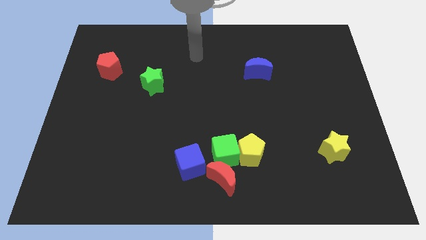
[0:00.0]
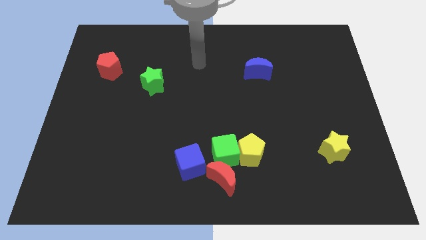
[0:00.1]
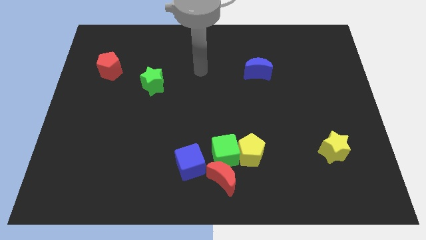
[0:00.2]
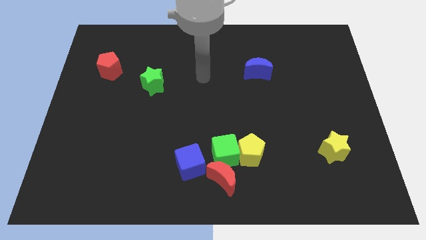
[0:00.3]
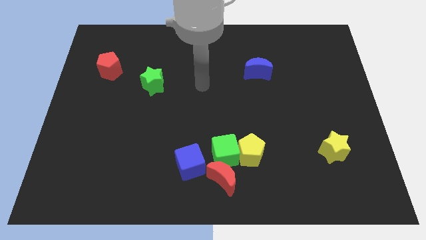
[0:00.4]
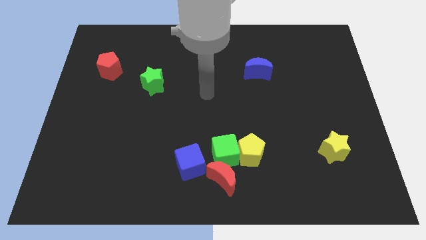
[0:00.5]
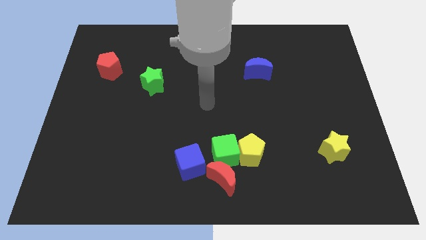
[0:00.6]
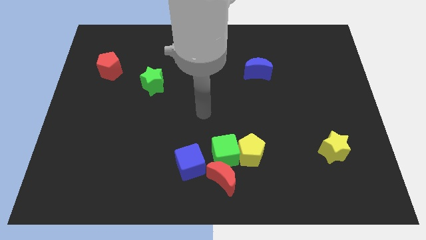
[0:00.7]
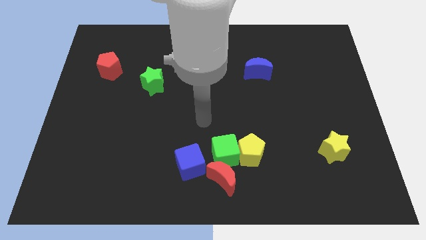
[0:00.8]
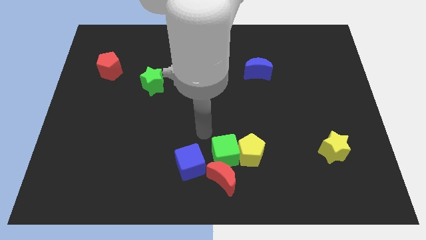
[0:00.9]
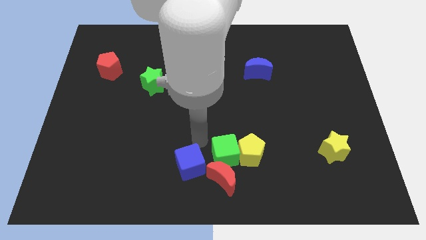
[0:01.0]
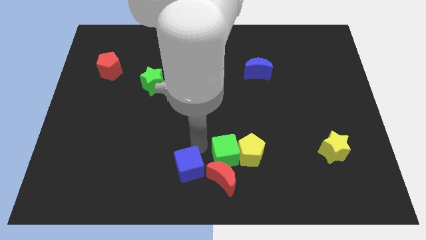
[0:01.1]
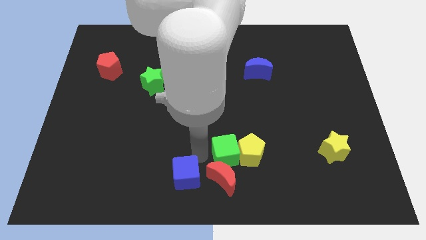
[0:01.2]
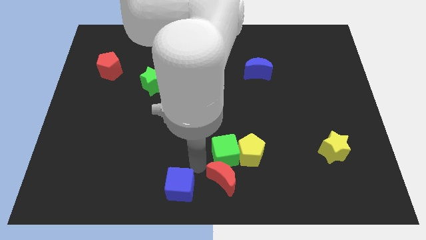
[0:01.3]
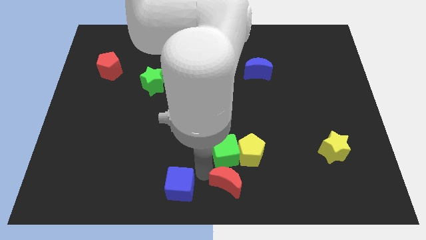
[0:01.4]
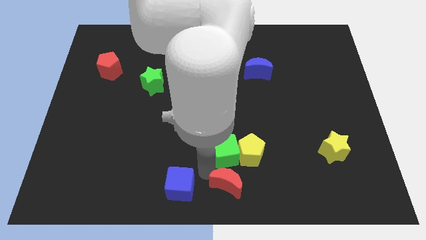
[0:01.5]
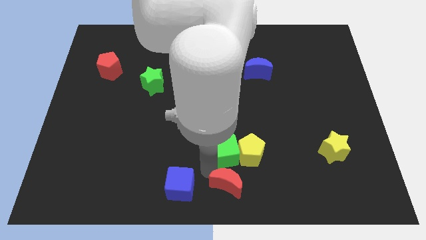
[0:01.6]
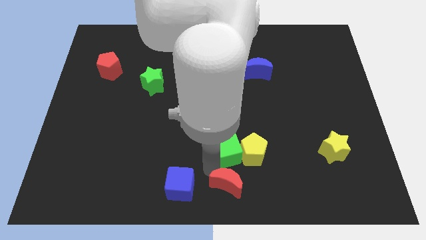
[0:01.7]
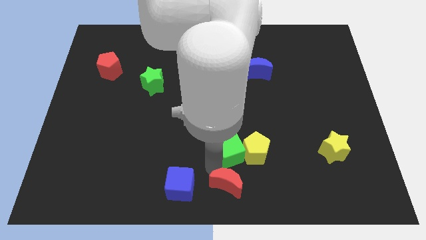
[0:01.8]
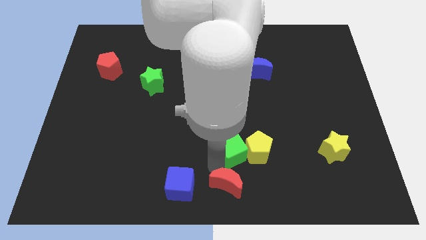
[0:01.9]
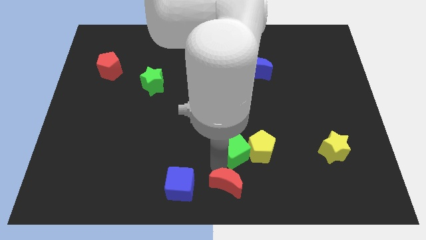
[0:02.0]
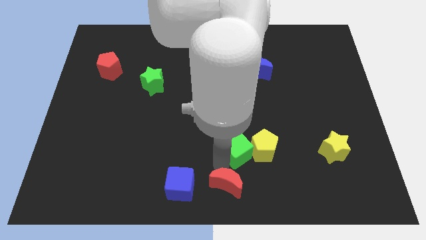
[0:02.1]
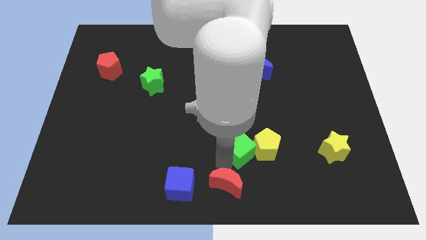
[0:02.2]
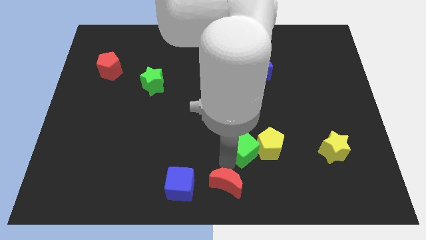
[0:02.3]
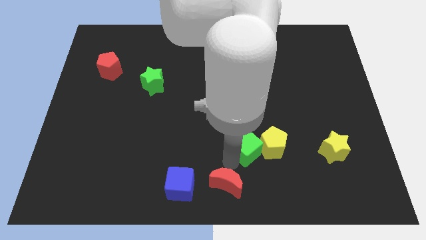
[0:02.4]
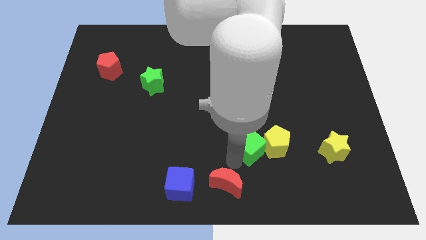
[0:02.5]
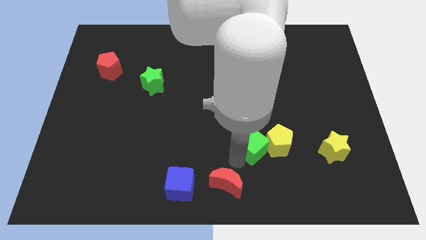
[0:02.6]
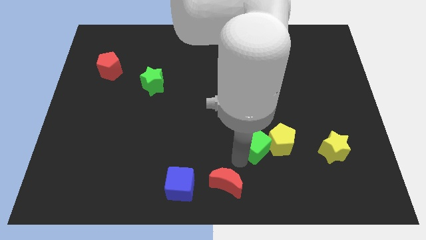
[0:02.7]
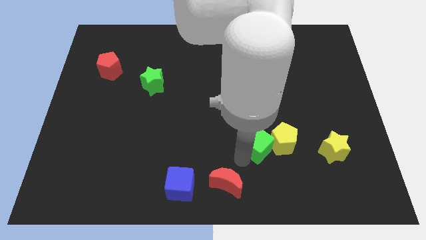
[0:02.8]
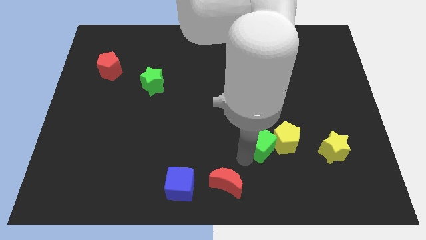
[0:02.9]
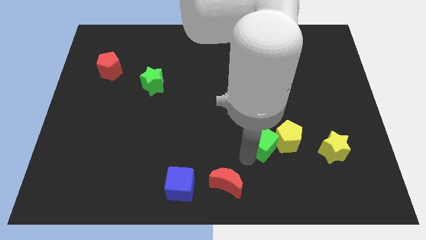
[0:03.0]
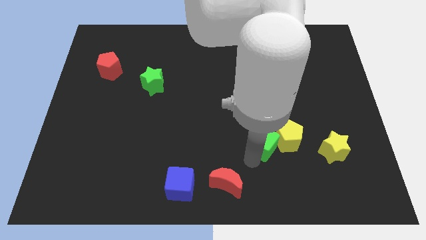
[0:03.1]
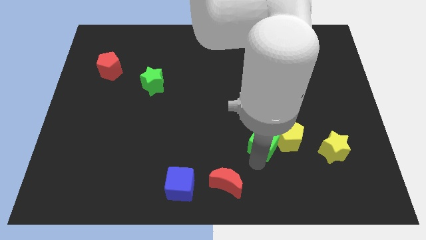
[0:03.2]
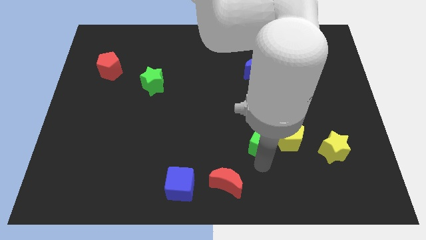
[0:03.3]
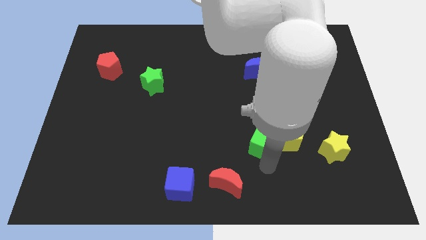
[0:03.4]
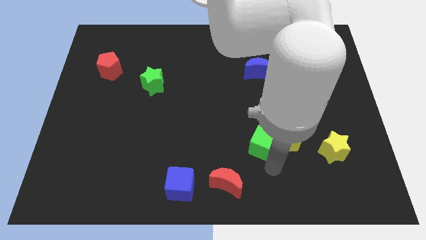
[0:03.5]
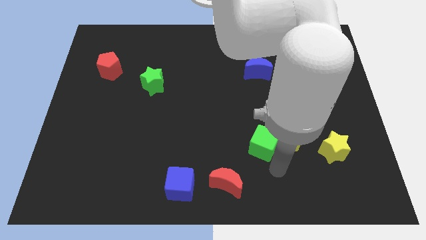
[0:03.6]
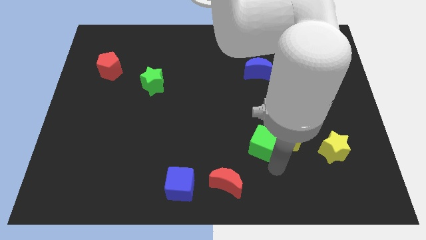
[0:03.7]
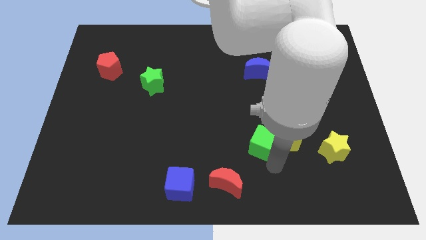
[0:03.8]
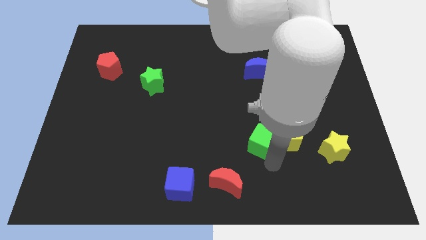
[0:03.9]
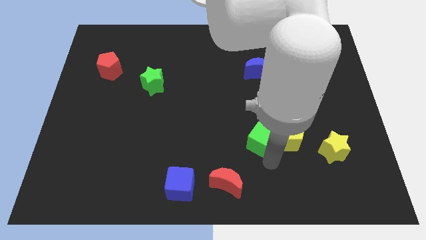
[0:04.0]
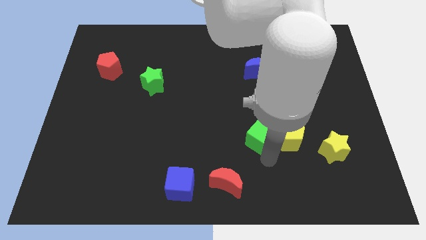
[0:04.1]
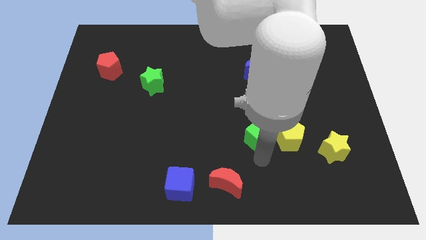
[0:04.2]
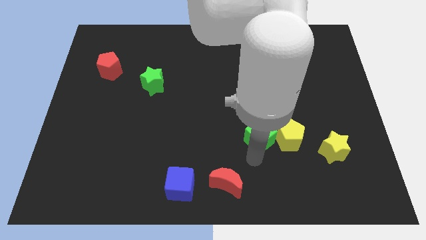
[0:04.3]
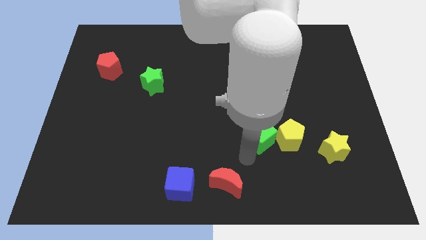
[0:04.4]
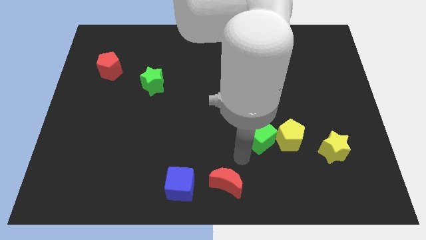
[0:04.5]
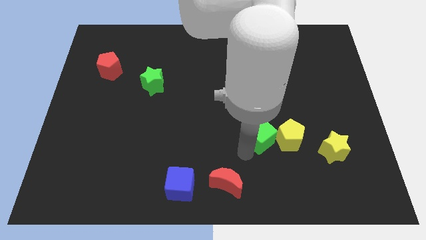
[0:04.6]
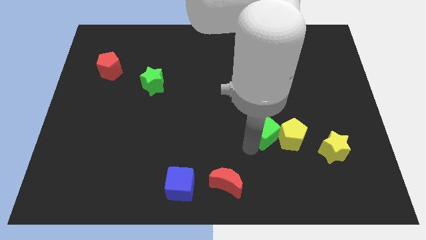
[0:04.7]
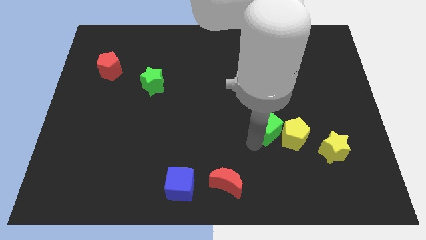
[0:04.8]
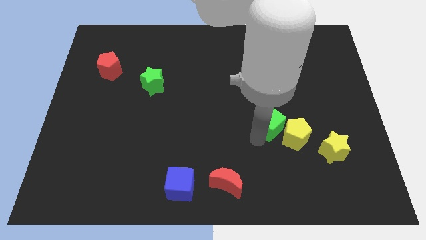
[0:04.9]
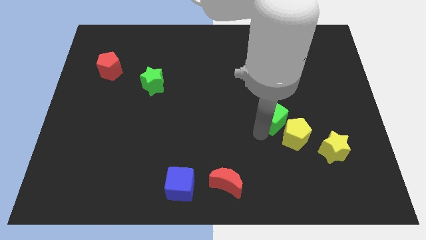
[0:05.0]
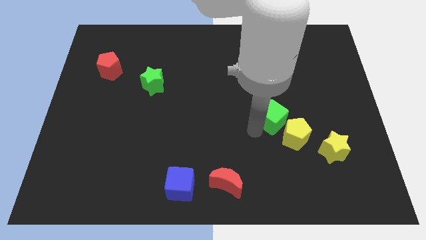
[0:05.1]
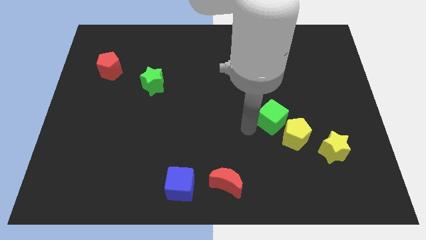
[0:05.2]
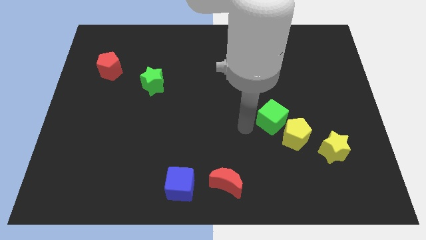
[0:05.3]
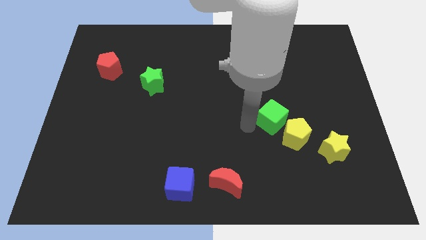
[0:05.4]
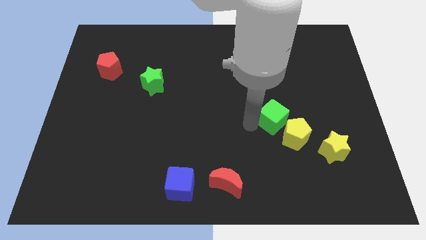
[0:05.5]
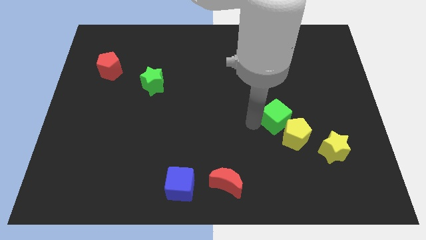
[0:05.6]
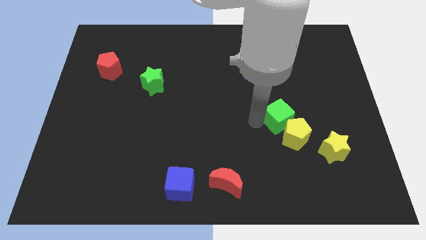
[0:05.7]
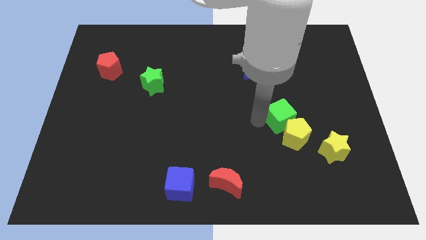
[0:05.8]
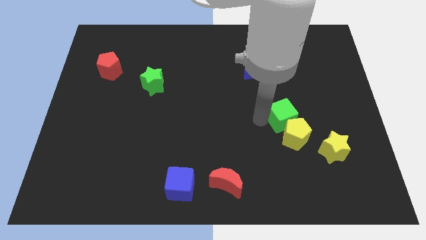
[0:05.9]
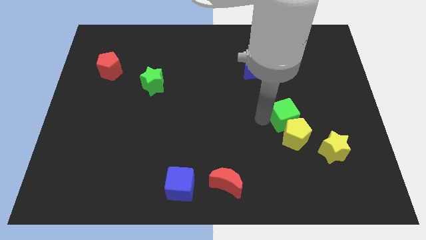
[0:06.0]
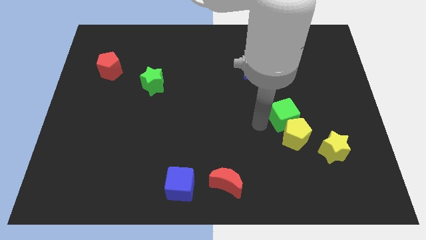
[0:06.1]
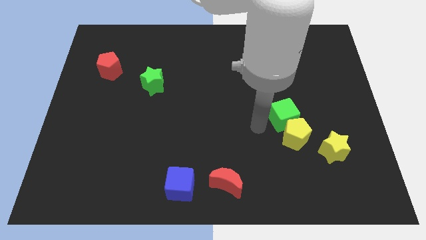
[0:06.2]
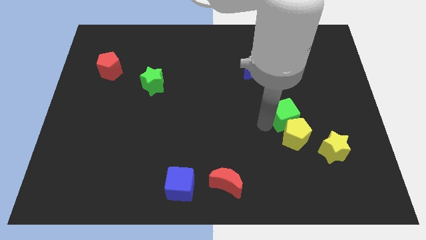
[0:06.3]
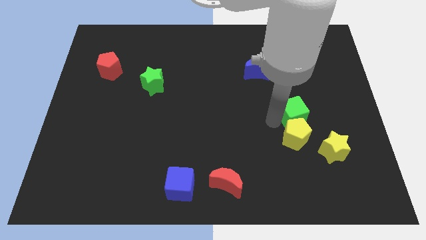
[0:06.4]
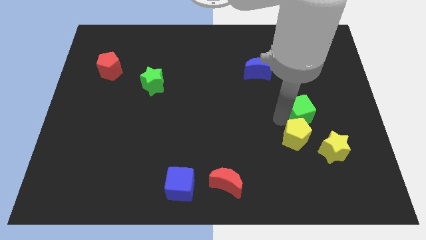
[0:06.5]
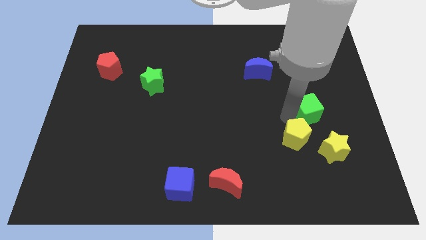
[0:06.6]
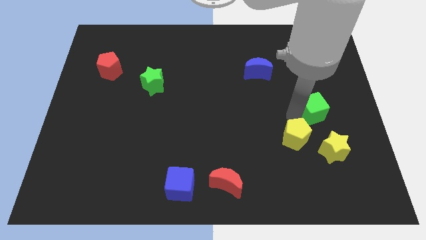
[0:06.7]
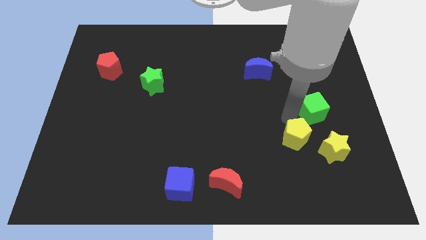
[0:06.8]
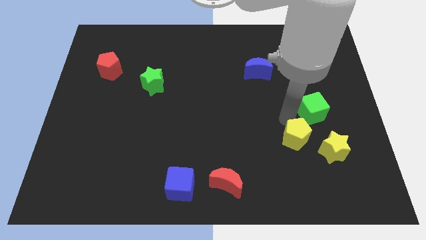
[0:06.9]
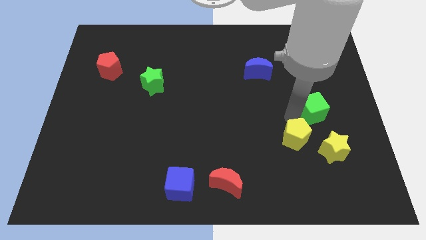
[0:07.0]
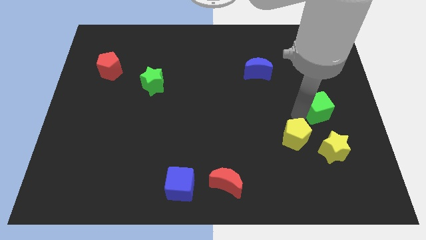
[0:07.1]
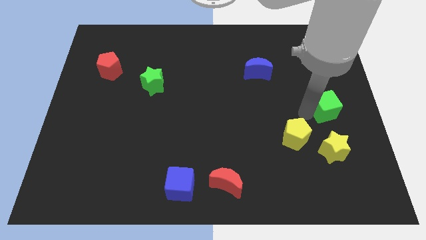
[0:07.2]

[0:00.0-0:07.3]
put the green cube to the right side
